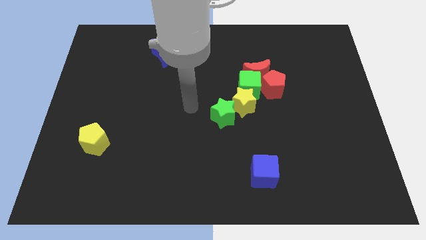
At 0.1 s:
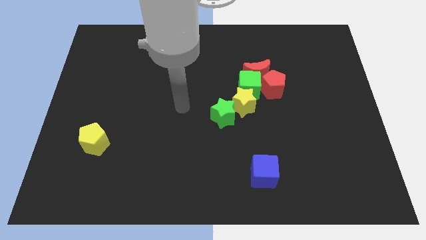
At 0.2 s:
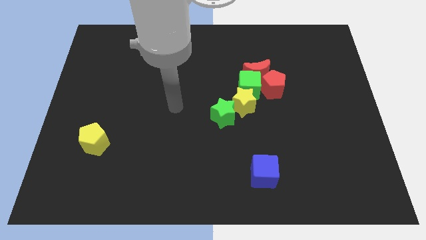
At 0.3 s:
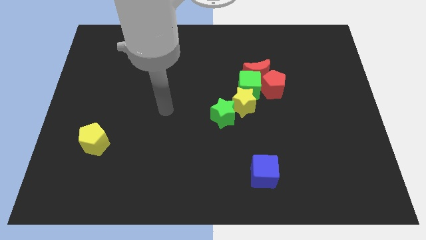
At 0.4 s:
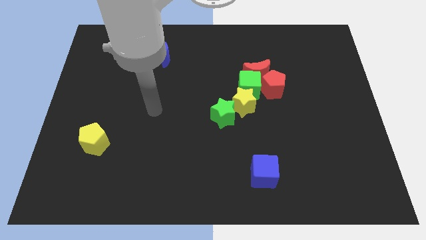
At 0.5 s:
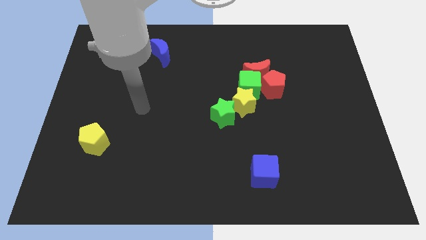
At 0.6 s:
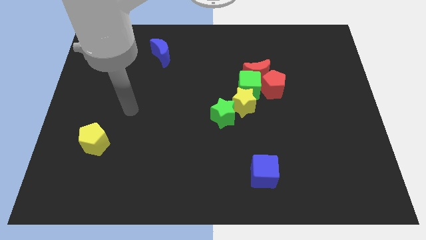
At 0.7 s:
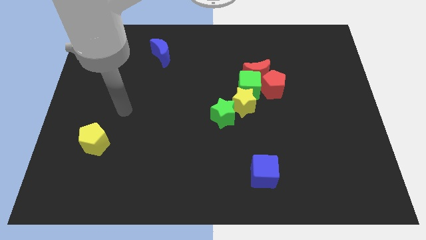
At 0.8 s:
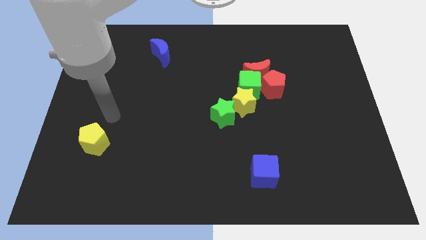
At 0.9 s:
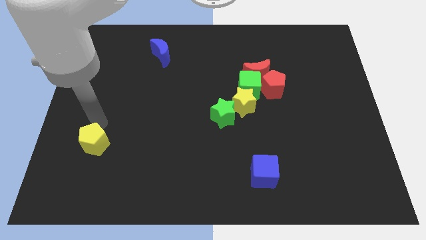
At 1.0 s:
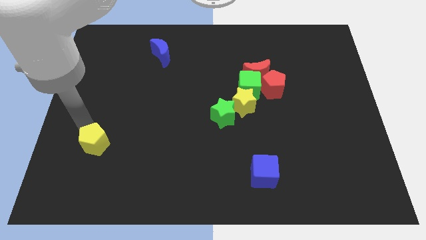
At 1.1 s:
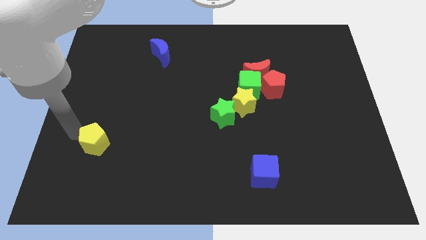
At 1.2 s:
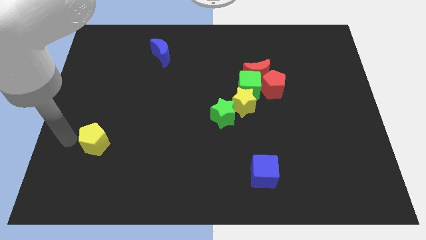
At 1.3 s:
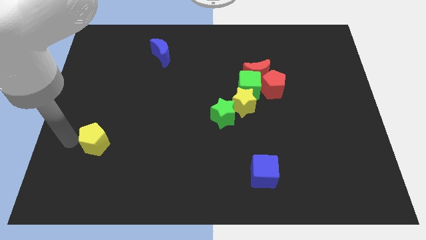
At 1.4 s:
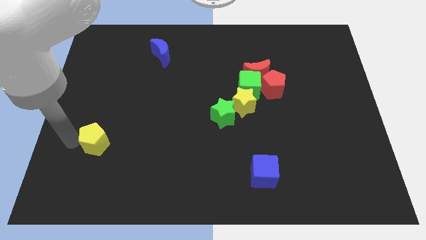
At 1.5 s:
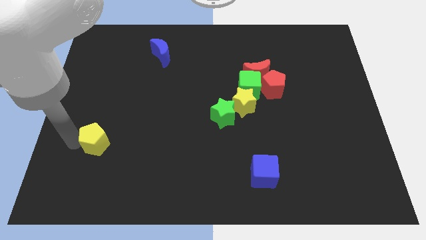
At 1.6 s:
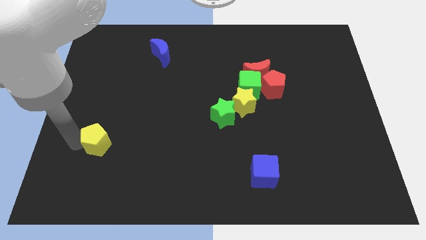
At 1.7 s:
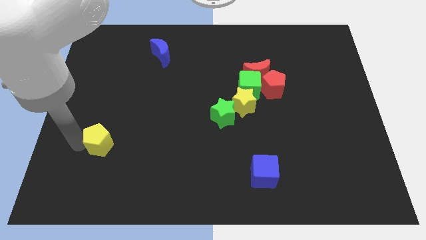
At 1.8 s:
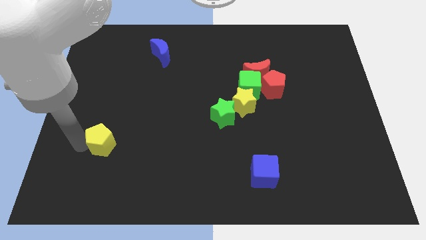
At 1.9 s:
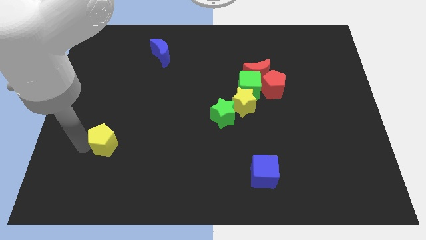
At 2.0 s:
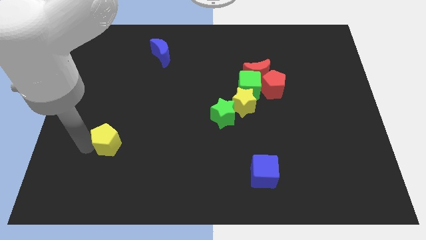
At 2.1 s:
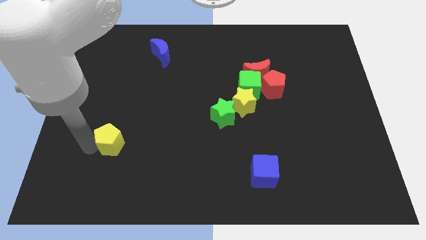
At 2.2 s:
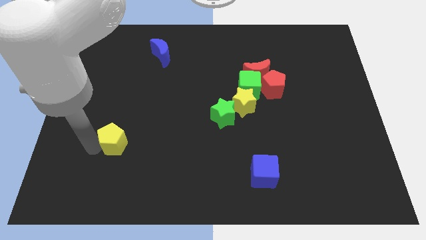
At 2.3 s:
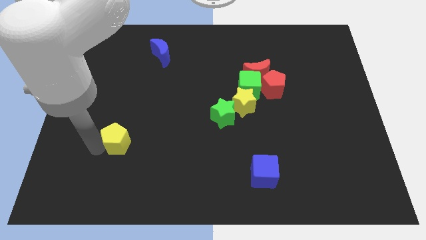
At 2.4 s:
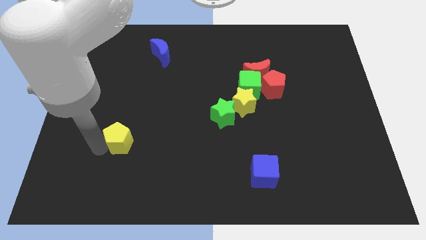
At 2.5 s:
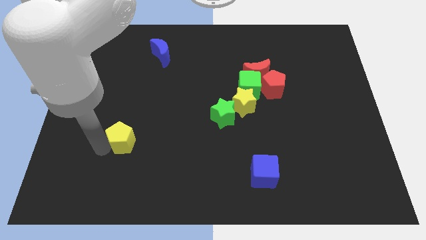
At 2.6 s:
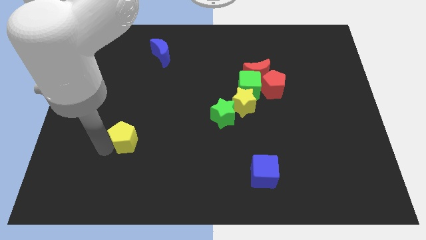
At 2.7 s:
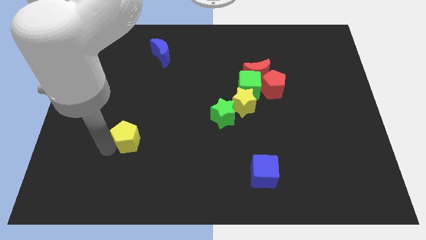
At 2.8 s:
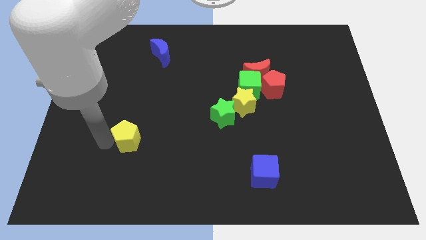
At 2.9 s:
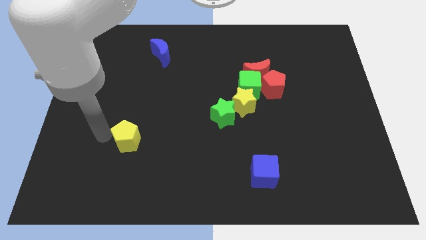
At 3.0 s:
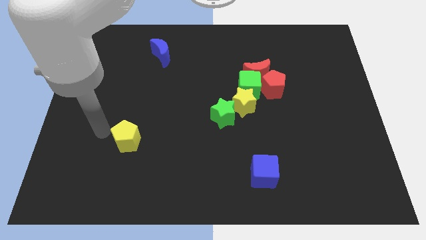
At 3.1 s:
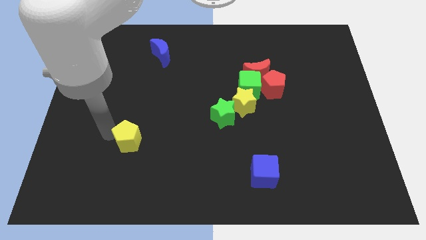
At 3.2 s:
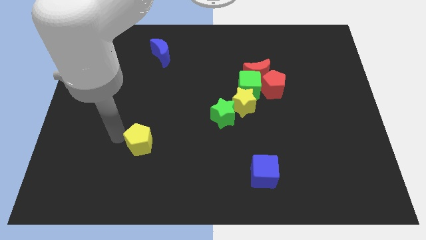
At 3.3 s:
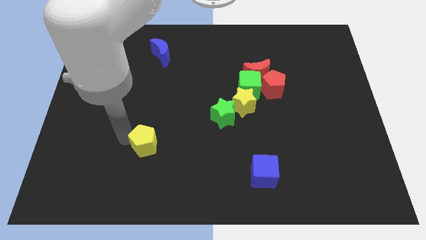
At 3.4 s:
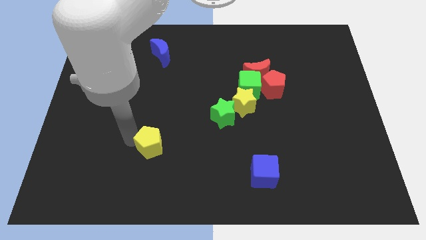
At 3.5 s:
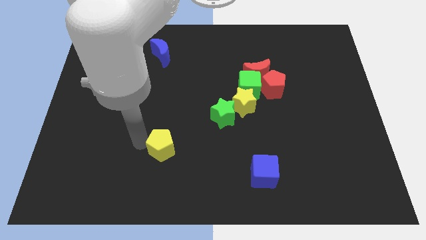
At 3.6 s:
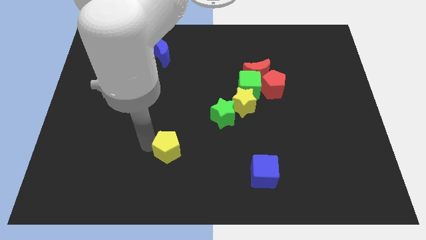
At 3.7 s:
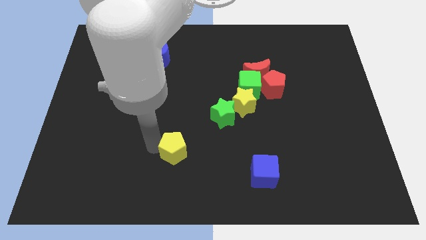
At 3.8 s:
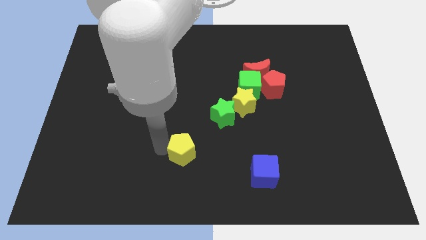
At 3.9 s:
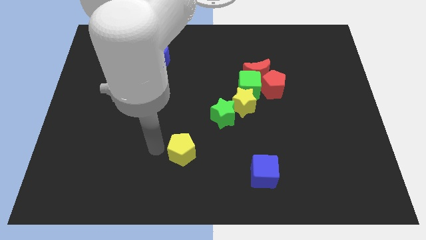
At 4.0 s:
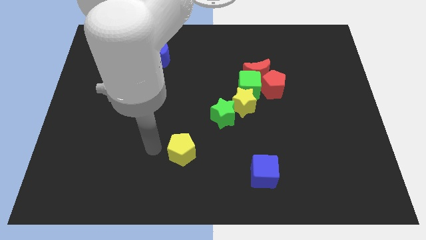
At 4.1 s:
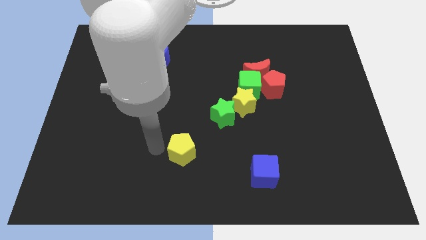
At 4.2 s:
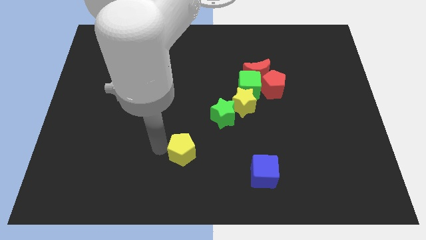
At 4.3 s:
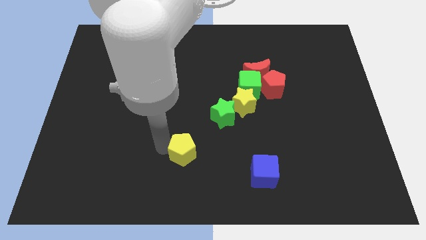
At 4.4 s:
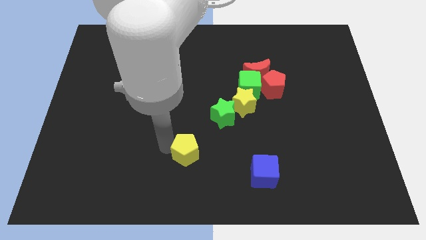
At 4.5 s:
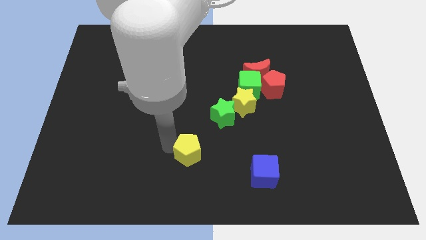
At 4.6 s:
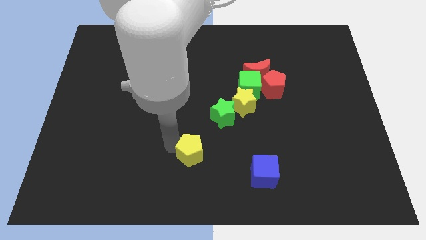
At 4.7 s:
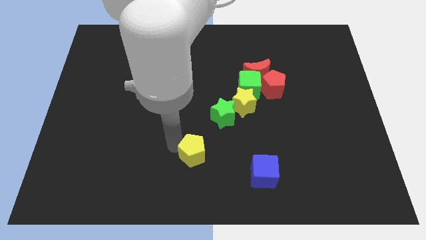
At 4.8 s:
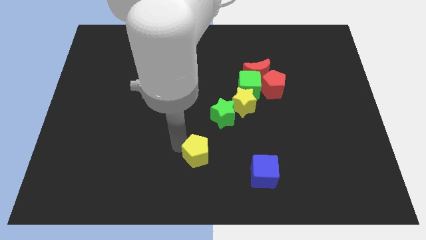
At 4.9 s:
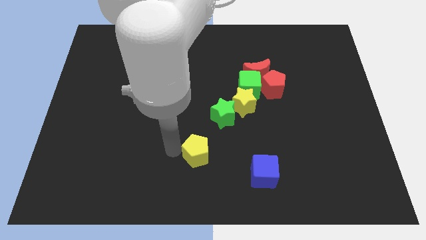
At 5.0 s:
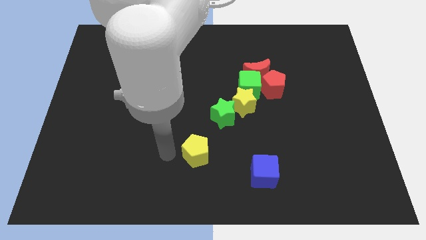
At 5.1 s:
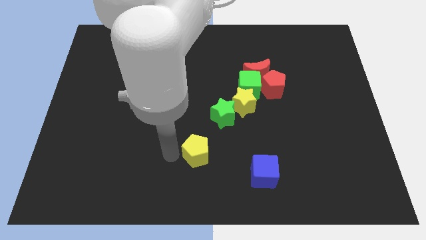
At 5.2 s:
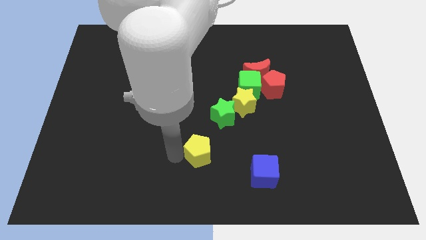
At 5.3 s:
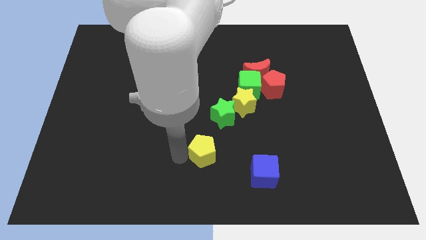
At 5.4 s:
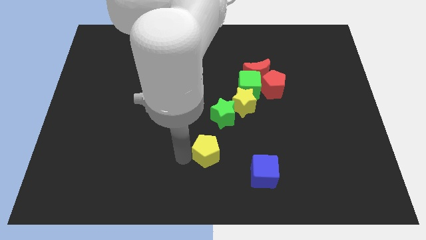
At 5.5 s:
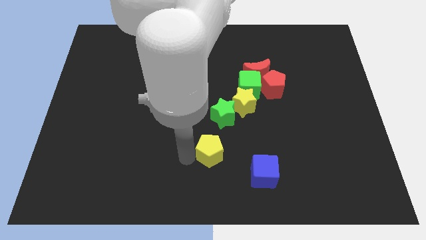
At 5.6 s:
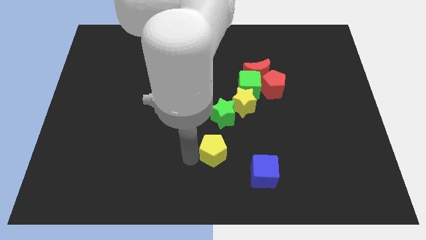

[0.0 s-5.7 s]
push the yellow pentagon diagonally up and to the left of the blue cube

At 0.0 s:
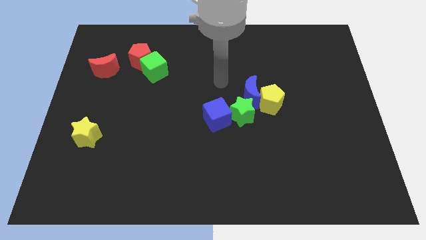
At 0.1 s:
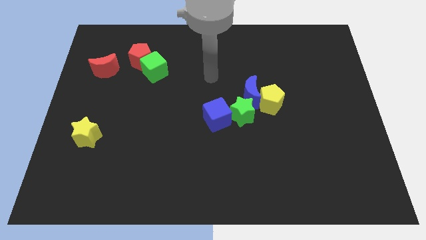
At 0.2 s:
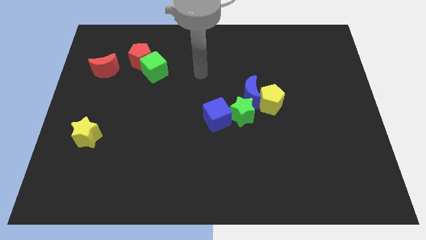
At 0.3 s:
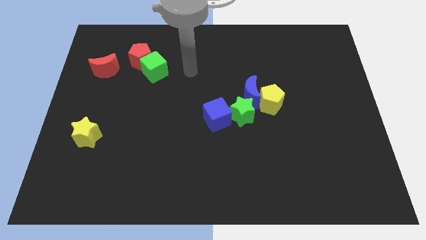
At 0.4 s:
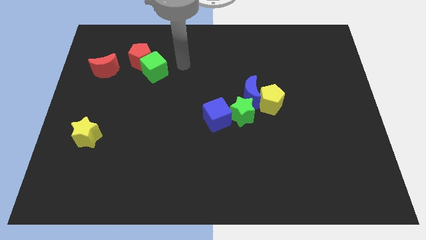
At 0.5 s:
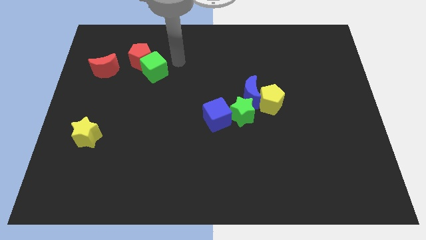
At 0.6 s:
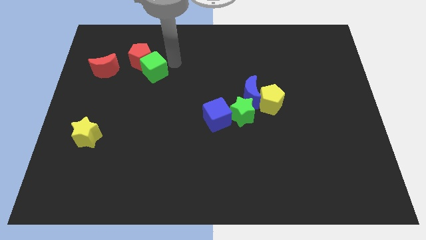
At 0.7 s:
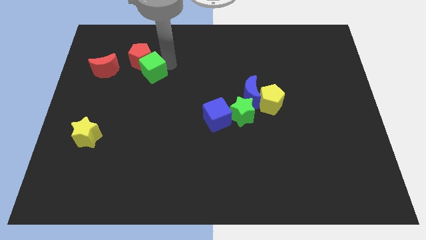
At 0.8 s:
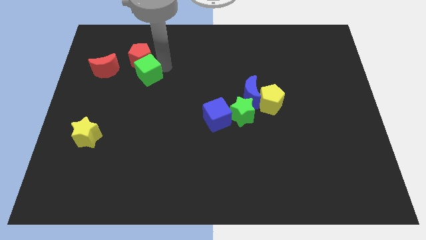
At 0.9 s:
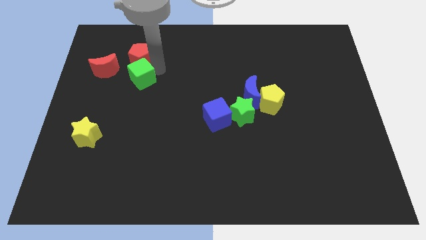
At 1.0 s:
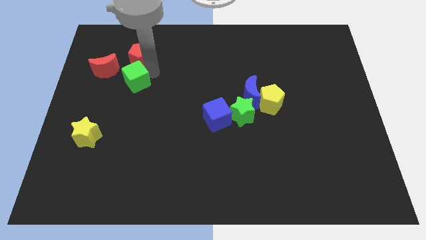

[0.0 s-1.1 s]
slide the green cube to the bottom right of the red moon

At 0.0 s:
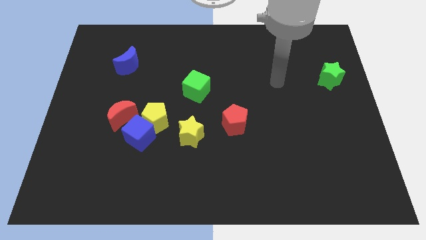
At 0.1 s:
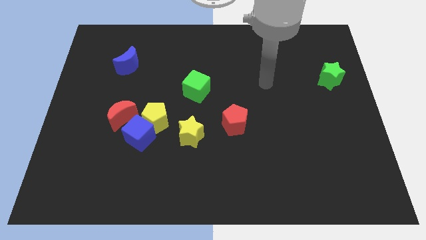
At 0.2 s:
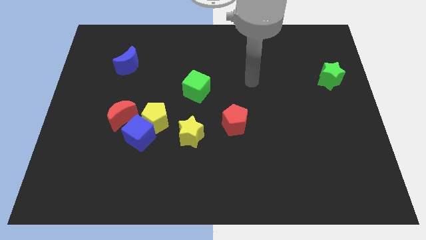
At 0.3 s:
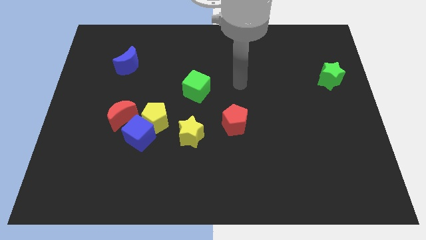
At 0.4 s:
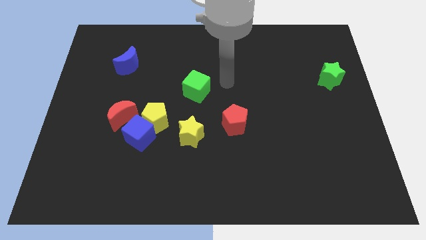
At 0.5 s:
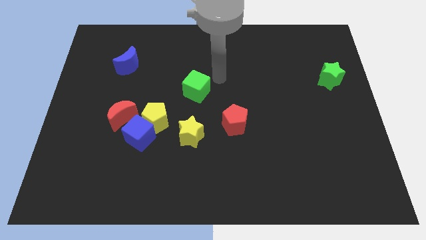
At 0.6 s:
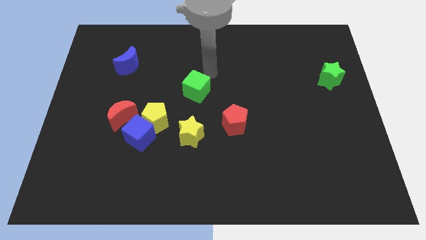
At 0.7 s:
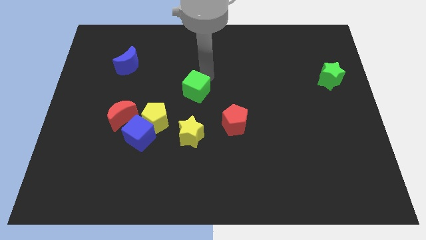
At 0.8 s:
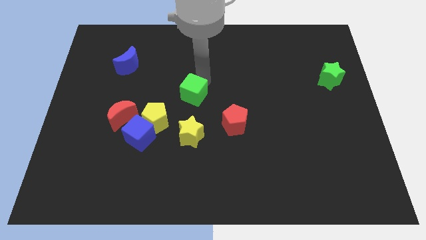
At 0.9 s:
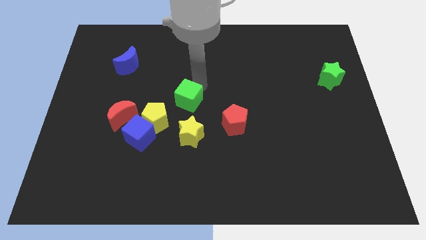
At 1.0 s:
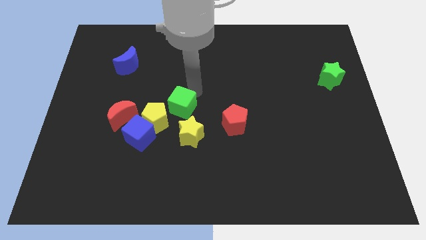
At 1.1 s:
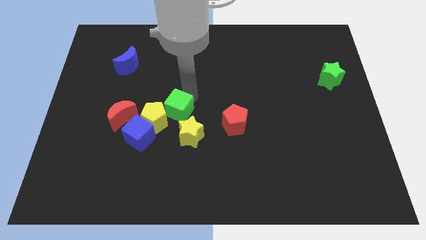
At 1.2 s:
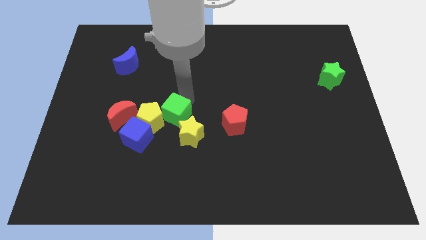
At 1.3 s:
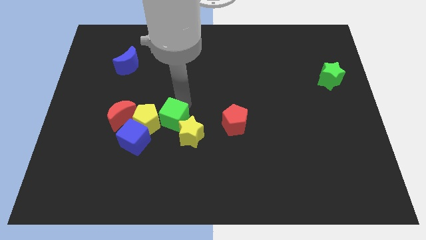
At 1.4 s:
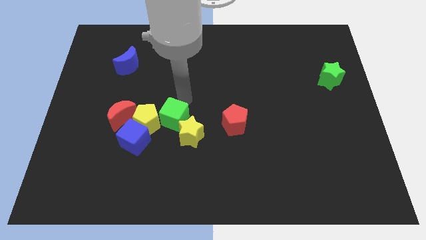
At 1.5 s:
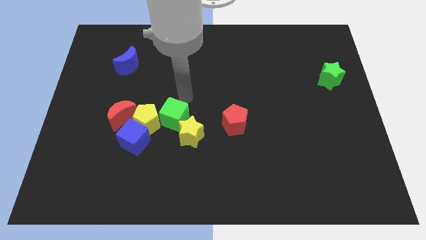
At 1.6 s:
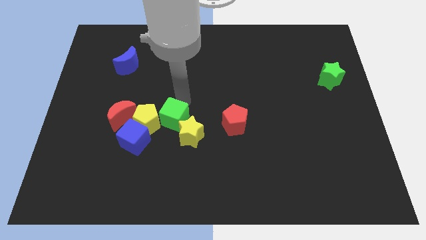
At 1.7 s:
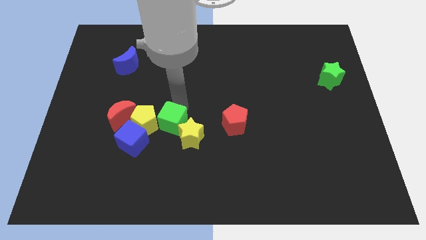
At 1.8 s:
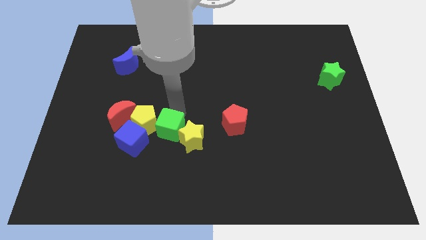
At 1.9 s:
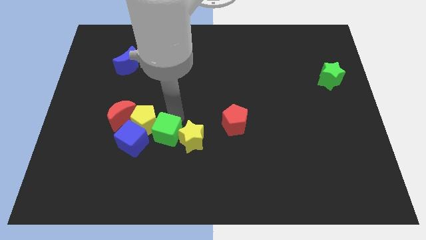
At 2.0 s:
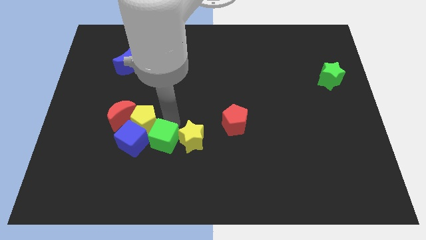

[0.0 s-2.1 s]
move the green cube to the bottom left side of the yellow star
